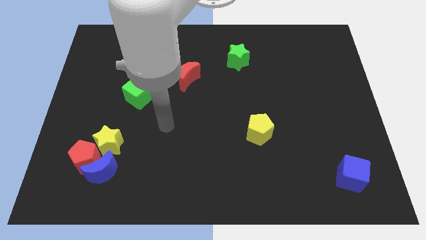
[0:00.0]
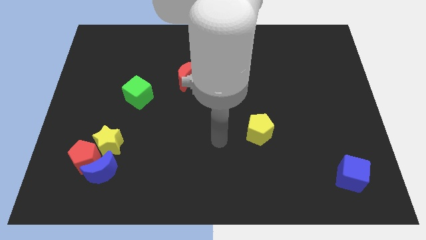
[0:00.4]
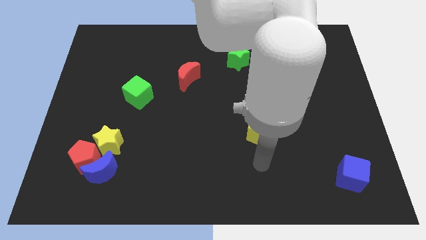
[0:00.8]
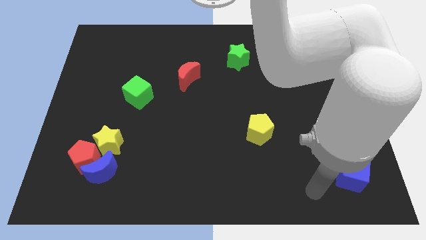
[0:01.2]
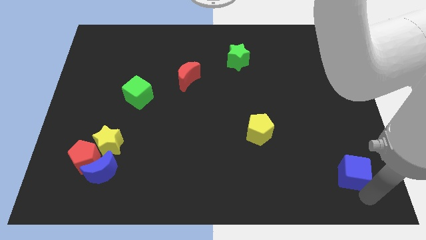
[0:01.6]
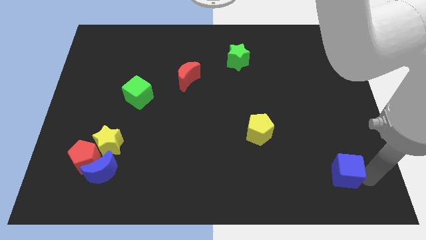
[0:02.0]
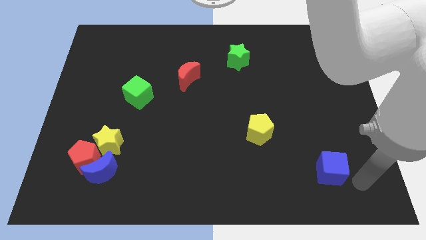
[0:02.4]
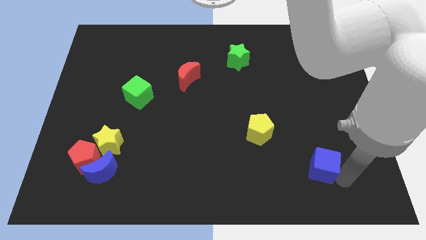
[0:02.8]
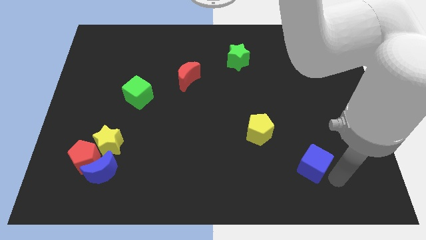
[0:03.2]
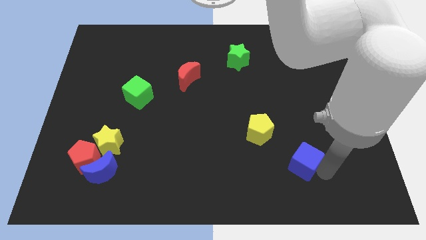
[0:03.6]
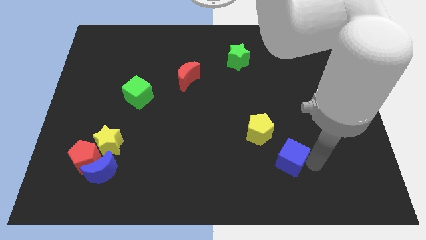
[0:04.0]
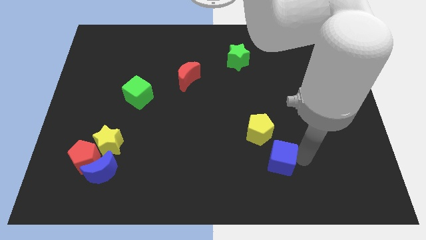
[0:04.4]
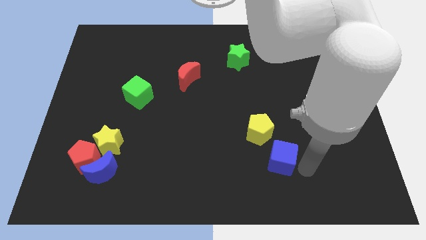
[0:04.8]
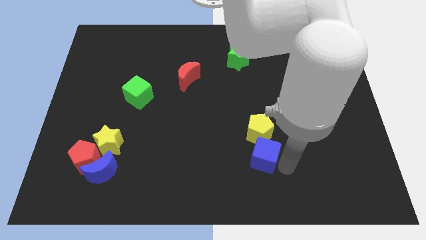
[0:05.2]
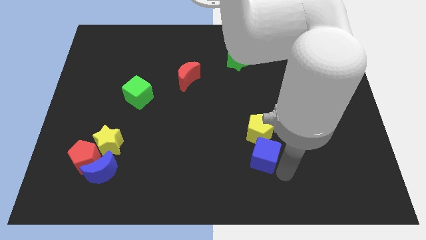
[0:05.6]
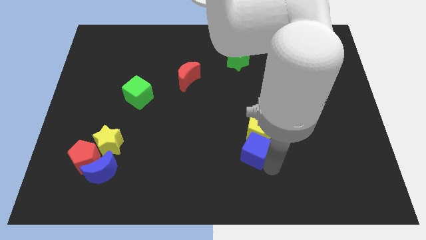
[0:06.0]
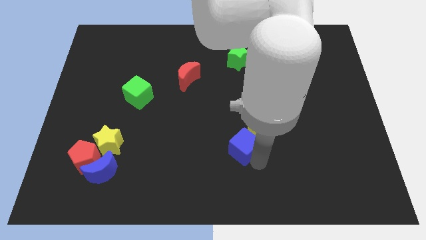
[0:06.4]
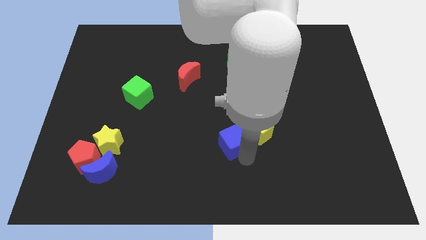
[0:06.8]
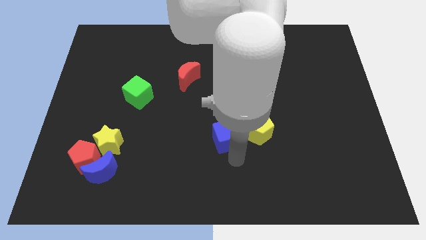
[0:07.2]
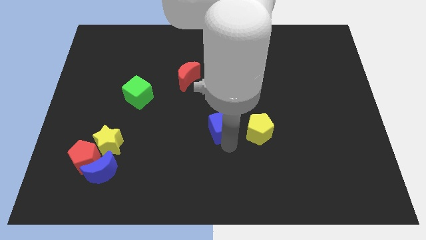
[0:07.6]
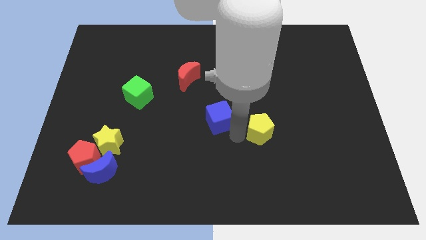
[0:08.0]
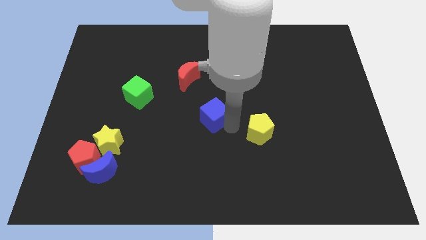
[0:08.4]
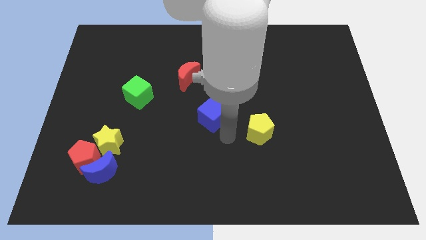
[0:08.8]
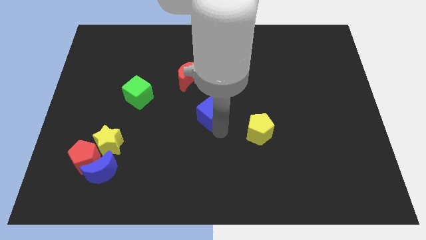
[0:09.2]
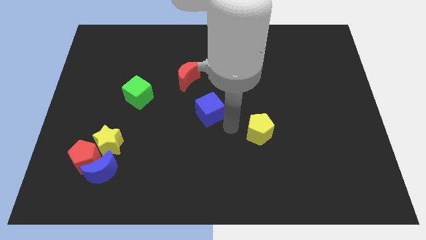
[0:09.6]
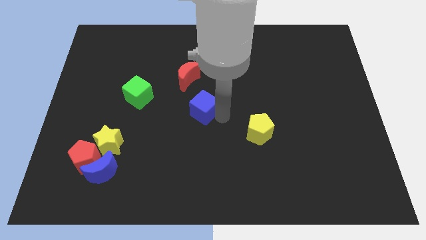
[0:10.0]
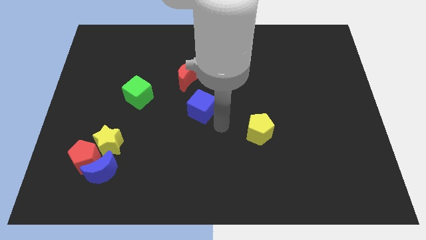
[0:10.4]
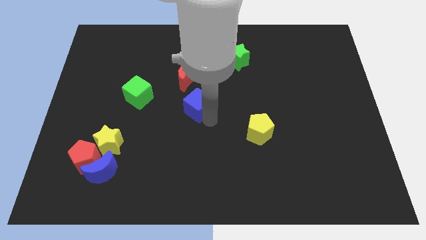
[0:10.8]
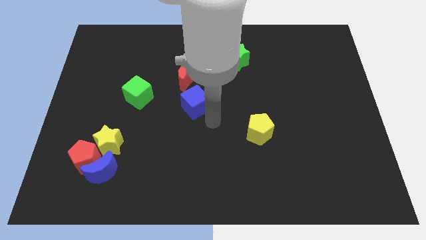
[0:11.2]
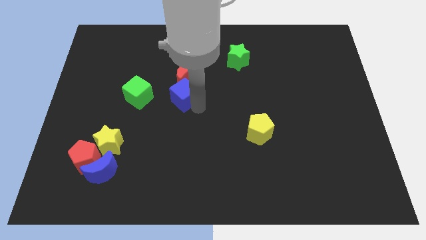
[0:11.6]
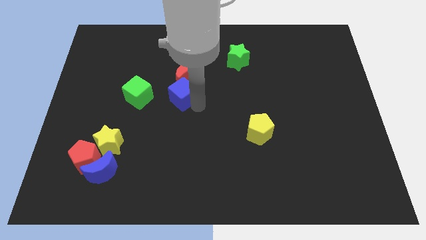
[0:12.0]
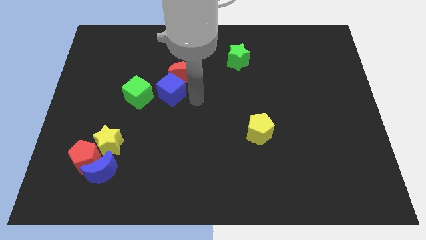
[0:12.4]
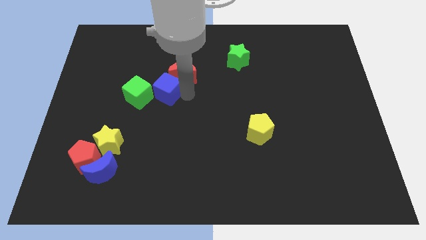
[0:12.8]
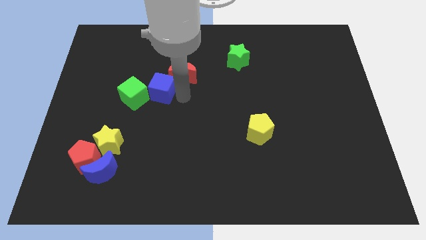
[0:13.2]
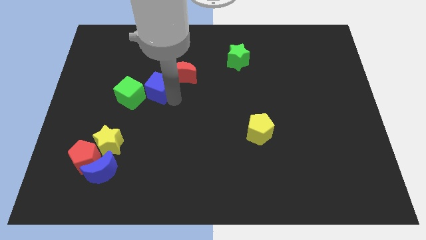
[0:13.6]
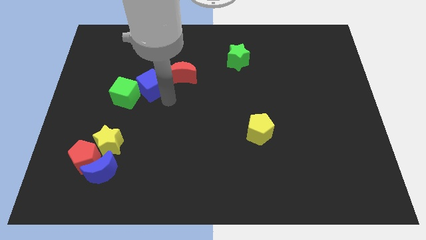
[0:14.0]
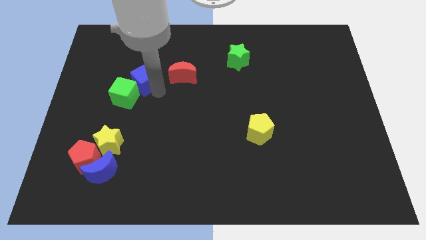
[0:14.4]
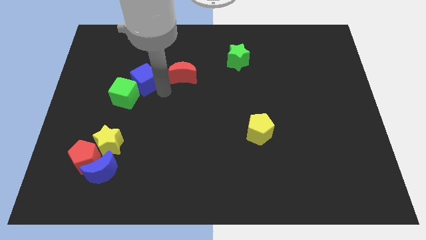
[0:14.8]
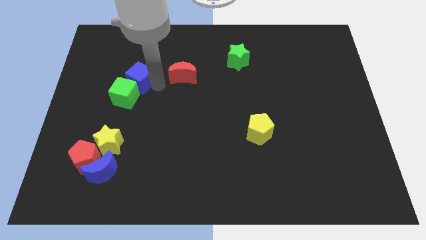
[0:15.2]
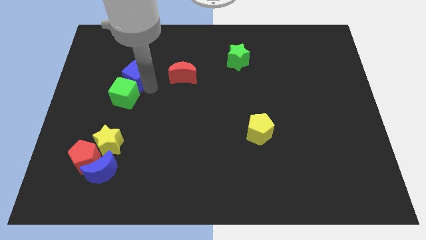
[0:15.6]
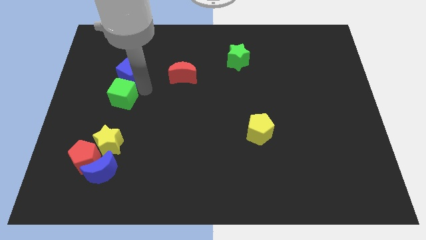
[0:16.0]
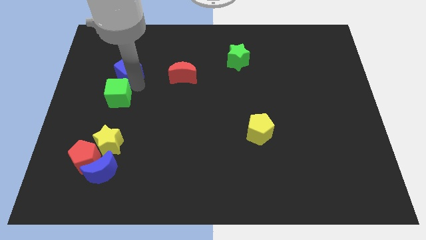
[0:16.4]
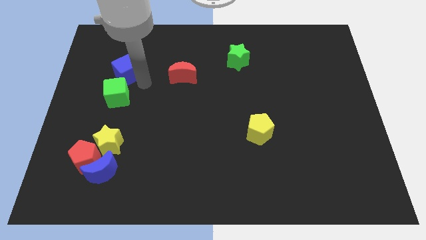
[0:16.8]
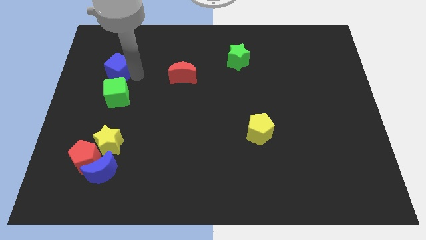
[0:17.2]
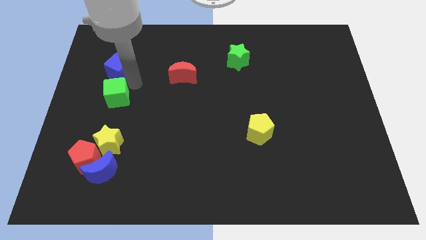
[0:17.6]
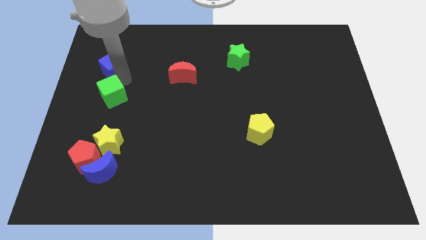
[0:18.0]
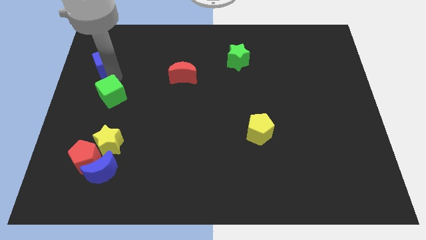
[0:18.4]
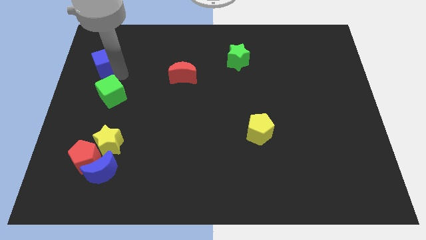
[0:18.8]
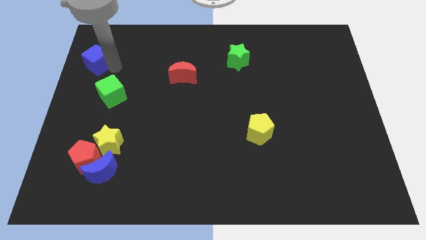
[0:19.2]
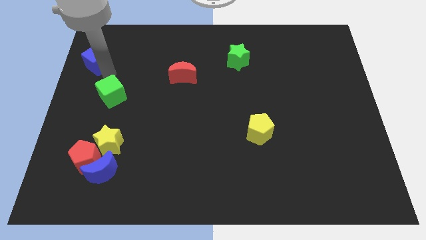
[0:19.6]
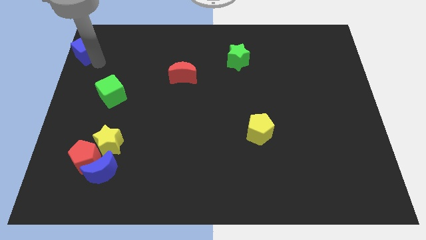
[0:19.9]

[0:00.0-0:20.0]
push the blue cube to the top left

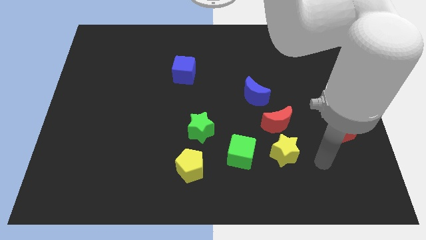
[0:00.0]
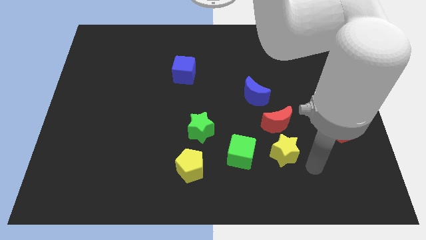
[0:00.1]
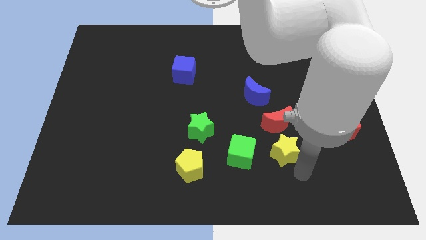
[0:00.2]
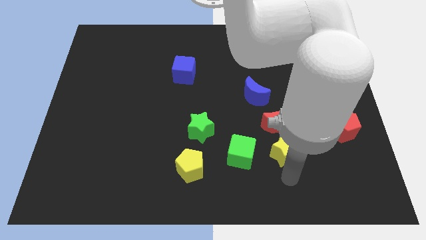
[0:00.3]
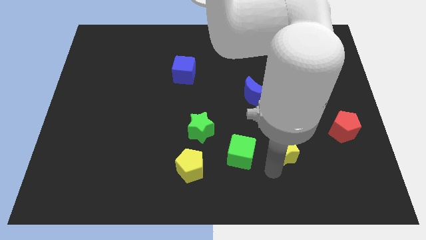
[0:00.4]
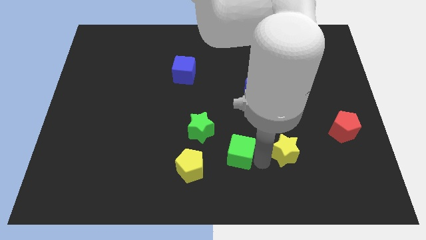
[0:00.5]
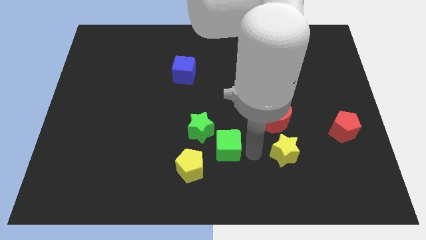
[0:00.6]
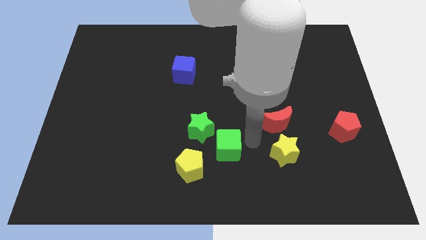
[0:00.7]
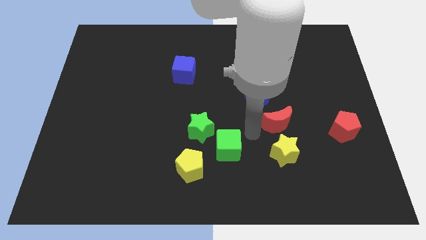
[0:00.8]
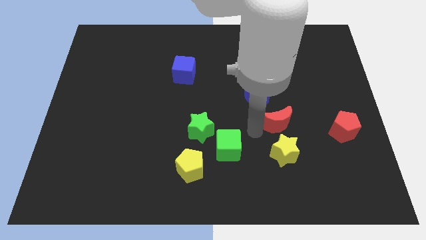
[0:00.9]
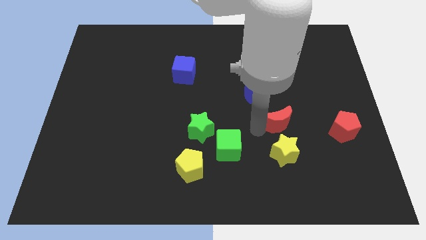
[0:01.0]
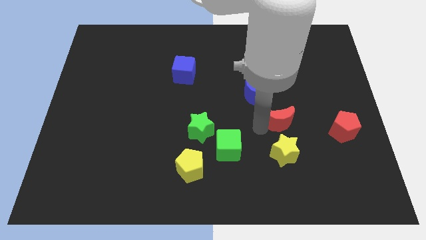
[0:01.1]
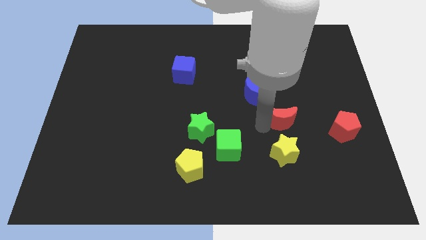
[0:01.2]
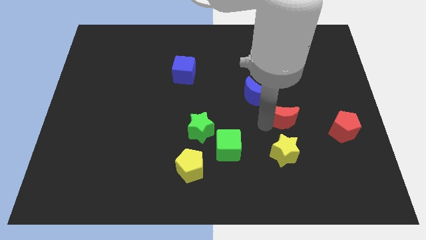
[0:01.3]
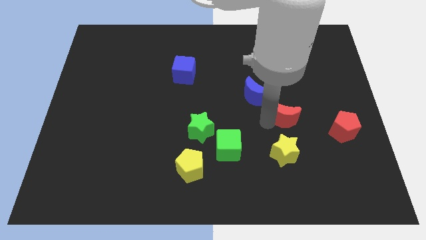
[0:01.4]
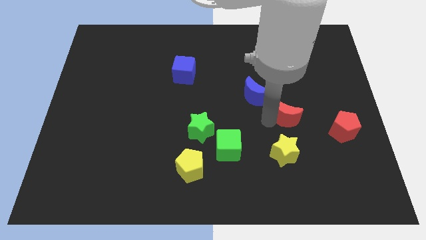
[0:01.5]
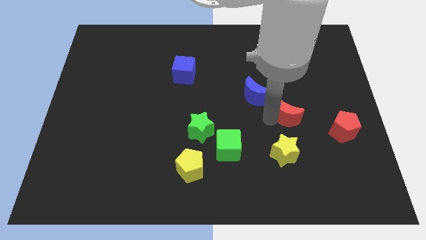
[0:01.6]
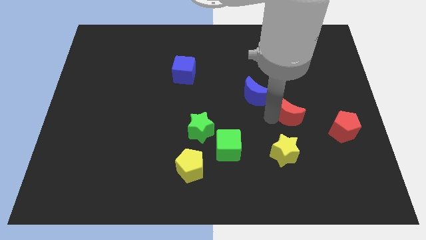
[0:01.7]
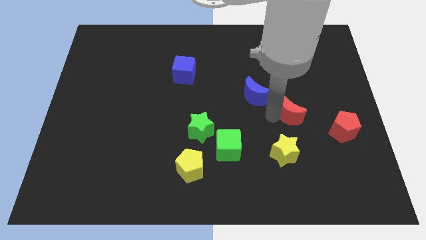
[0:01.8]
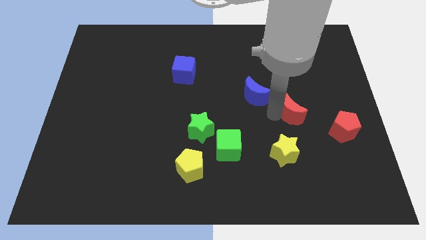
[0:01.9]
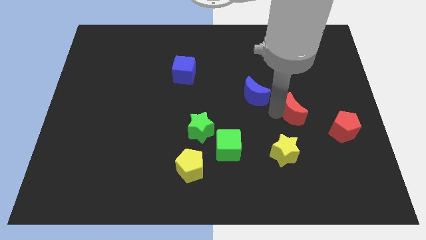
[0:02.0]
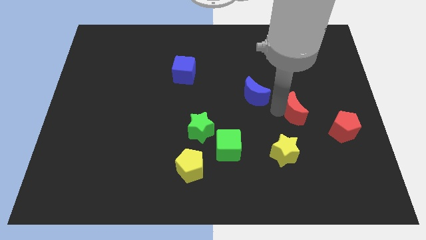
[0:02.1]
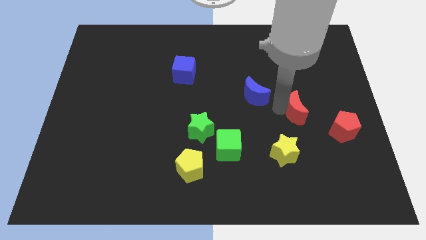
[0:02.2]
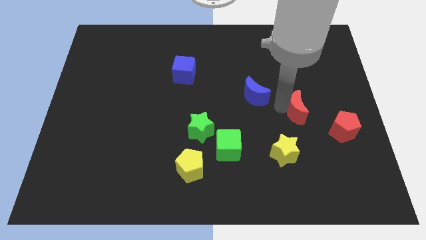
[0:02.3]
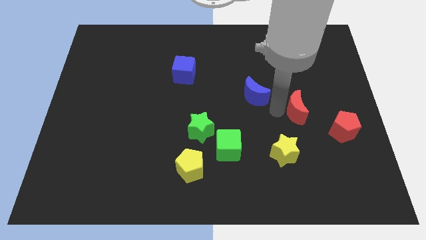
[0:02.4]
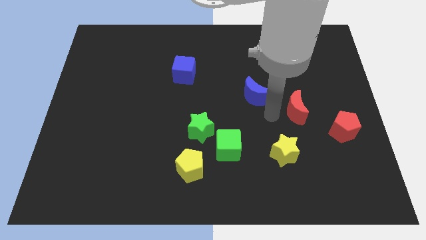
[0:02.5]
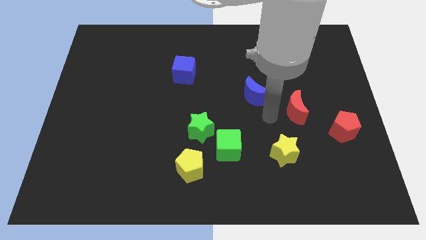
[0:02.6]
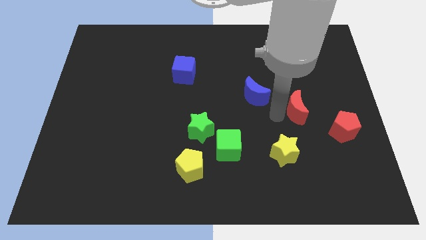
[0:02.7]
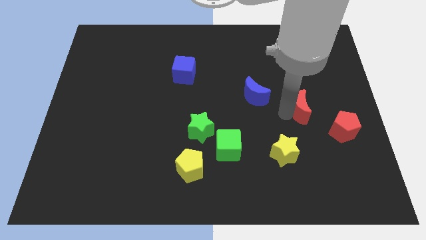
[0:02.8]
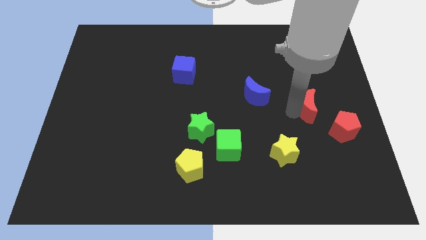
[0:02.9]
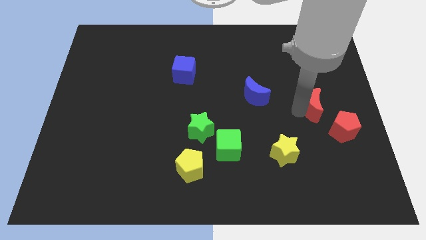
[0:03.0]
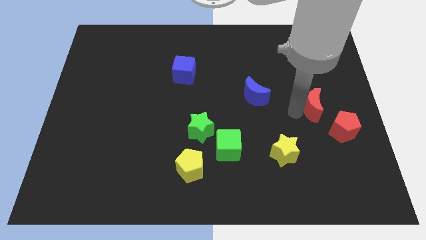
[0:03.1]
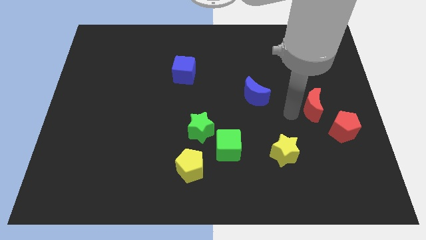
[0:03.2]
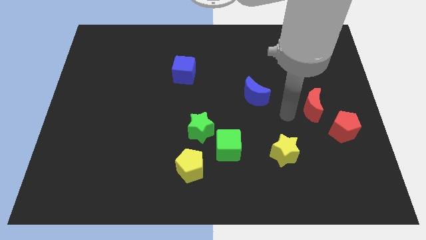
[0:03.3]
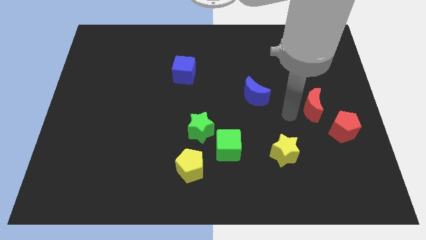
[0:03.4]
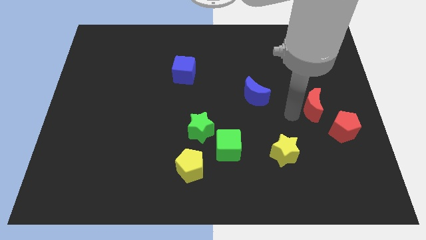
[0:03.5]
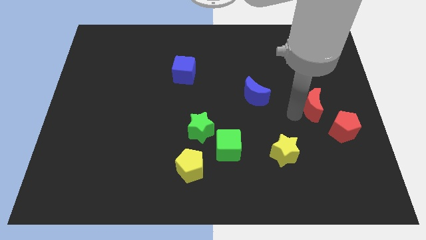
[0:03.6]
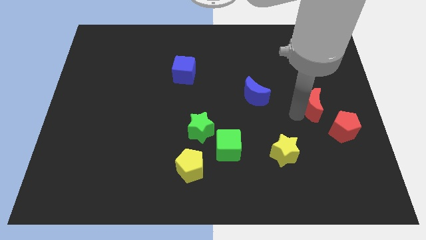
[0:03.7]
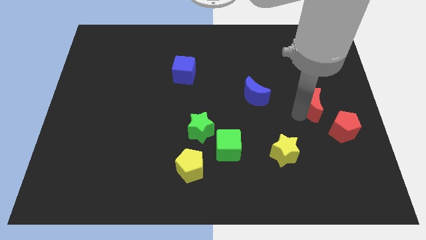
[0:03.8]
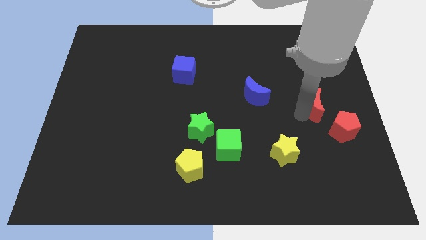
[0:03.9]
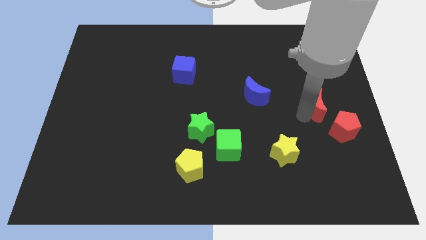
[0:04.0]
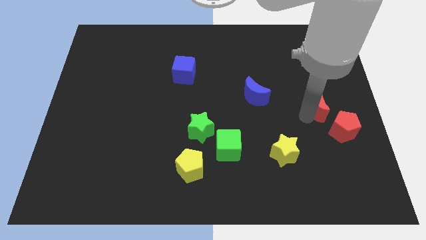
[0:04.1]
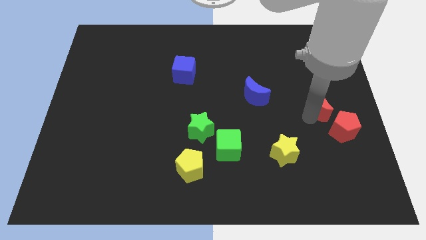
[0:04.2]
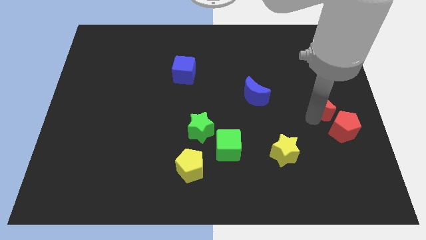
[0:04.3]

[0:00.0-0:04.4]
push the red moon to the right side of the board
